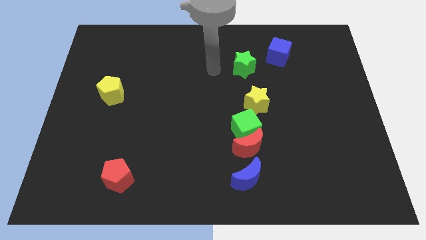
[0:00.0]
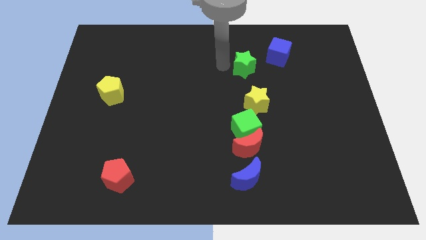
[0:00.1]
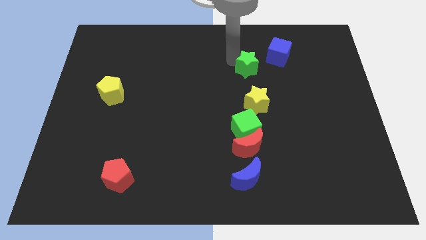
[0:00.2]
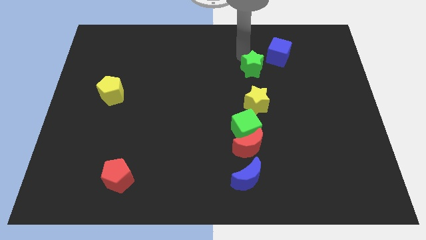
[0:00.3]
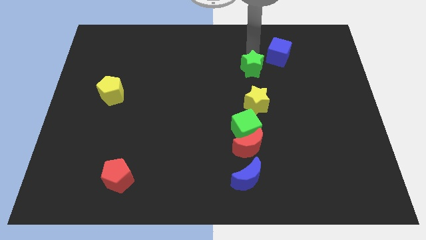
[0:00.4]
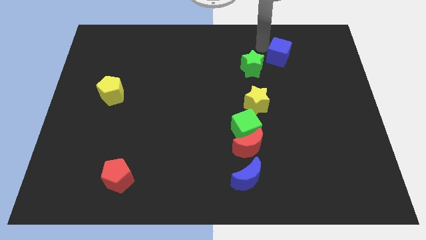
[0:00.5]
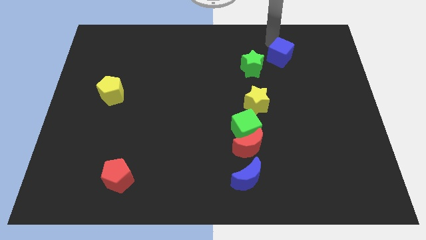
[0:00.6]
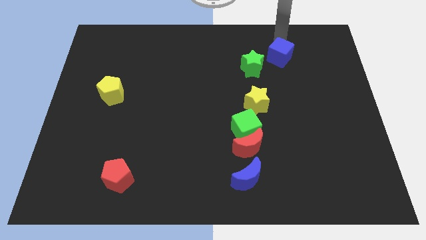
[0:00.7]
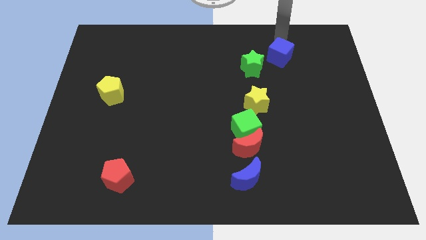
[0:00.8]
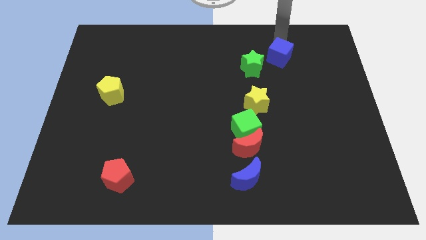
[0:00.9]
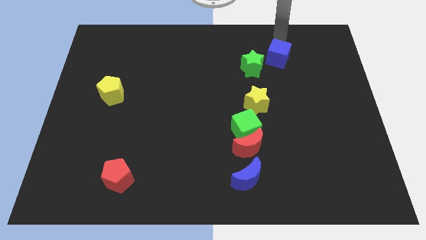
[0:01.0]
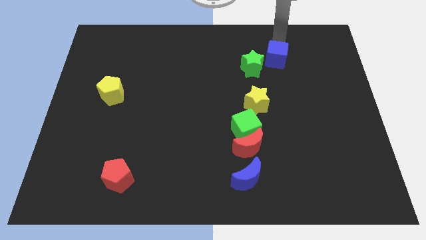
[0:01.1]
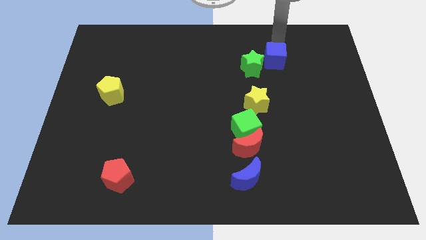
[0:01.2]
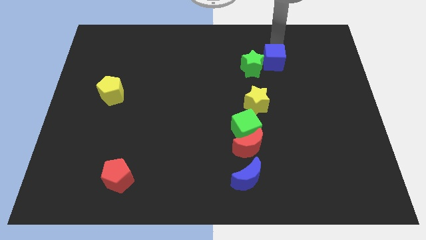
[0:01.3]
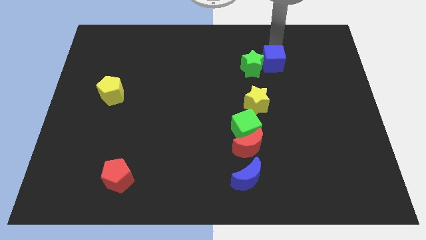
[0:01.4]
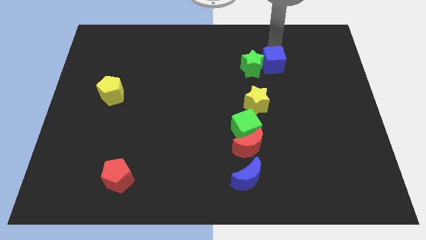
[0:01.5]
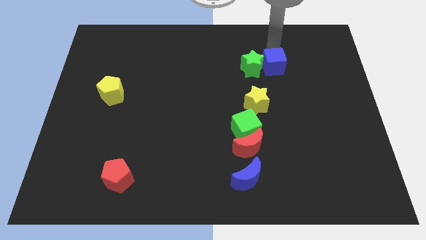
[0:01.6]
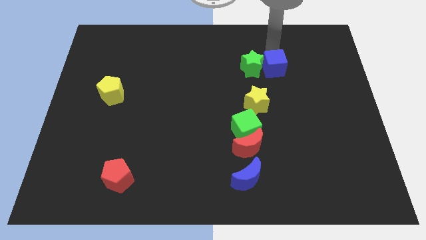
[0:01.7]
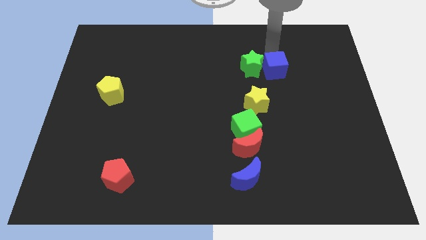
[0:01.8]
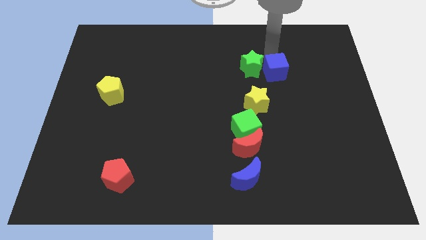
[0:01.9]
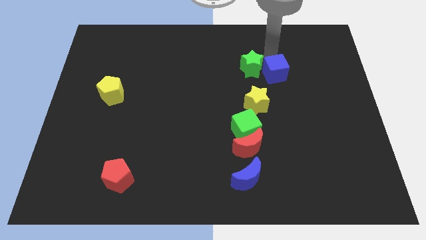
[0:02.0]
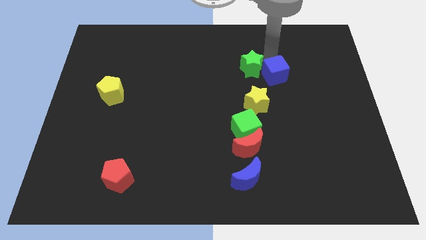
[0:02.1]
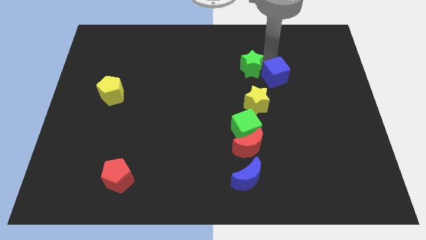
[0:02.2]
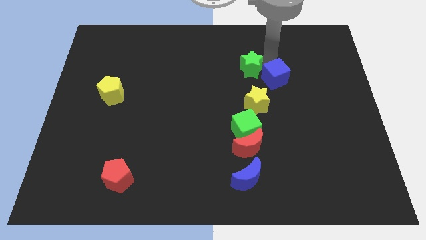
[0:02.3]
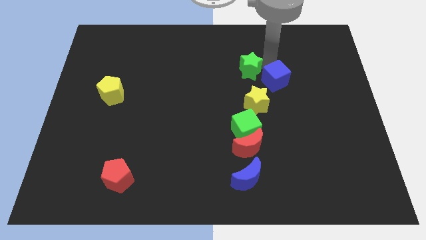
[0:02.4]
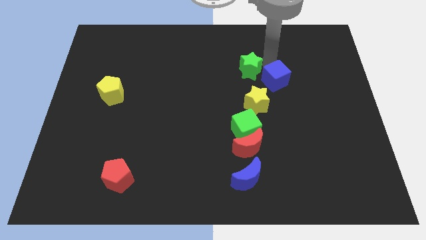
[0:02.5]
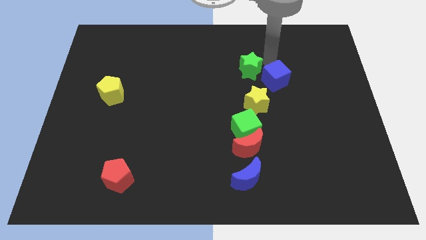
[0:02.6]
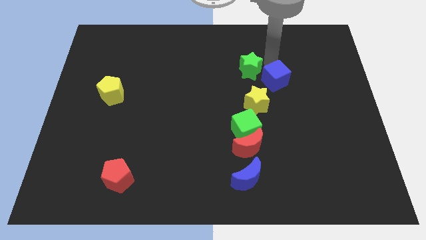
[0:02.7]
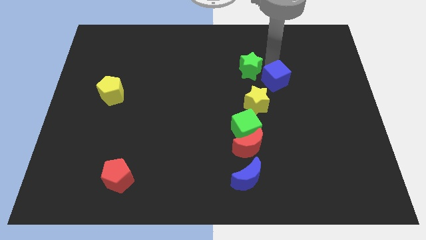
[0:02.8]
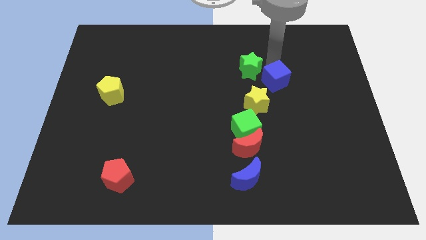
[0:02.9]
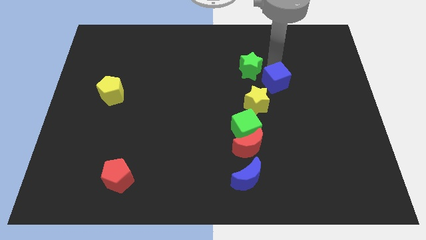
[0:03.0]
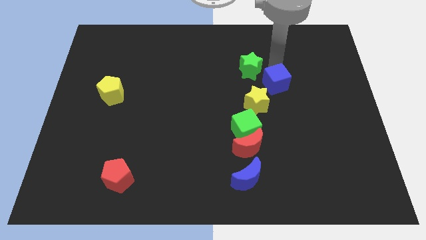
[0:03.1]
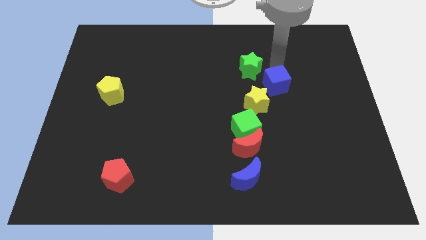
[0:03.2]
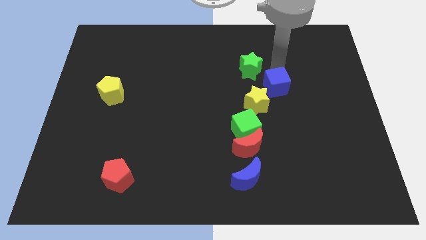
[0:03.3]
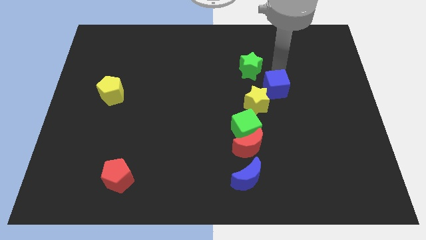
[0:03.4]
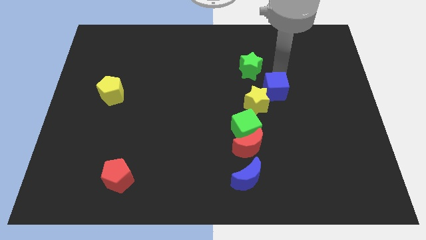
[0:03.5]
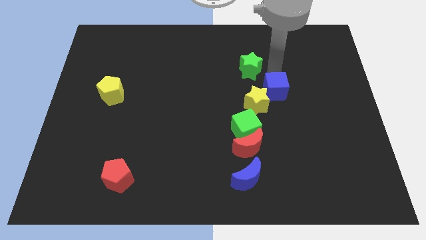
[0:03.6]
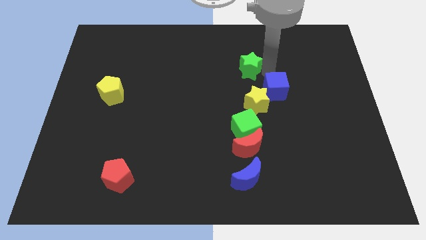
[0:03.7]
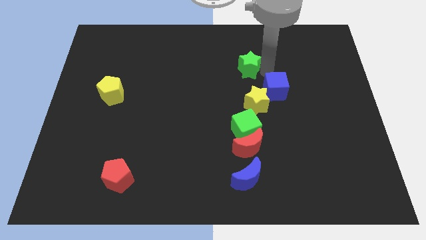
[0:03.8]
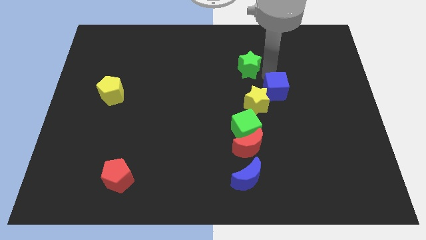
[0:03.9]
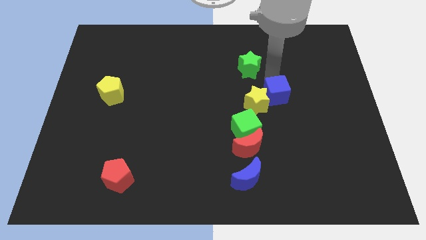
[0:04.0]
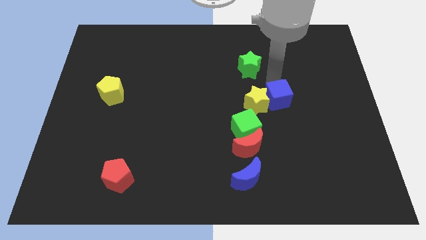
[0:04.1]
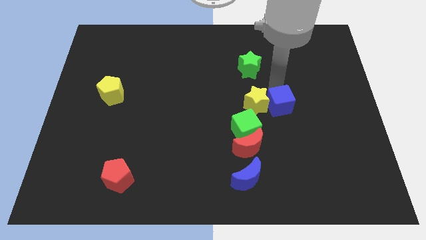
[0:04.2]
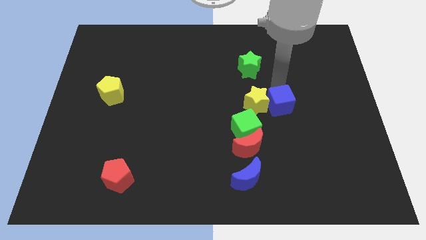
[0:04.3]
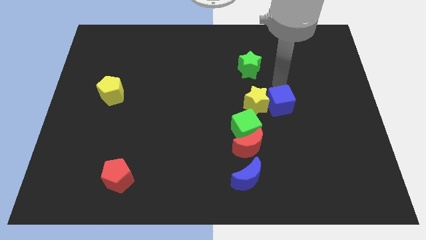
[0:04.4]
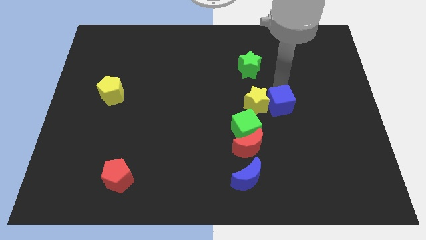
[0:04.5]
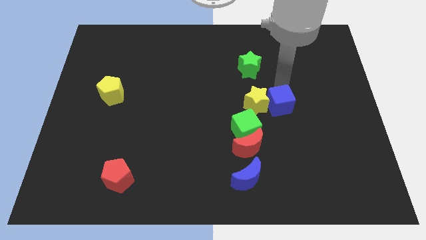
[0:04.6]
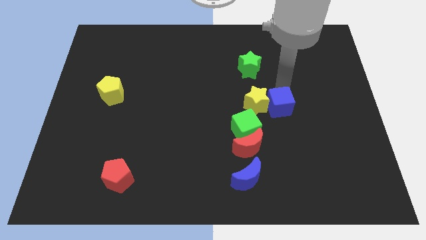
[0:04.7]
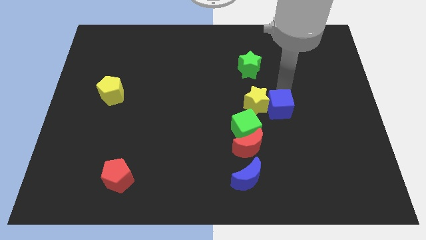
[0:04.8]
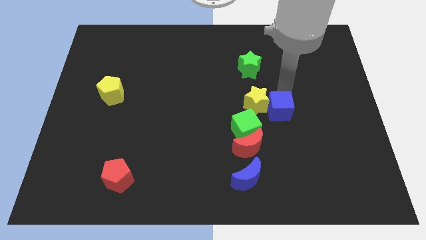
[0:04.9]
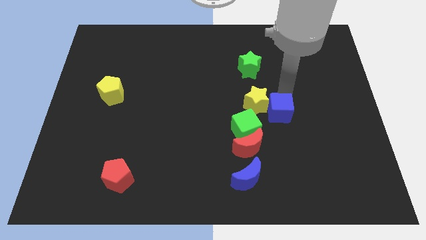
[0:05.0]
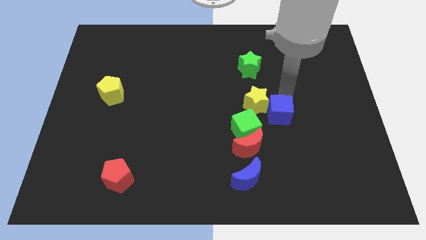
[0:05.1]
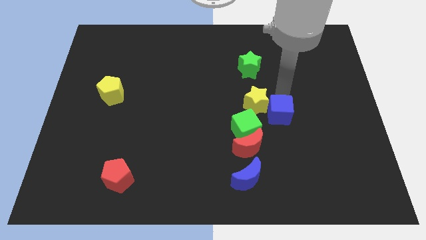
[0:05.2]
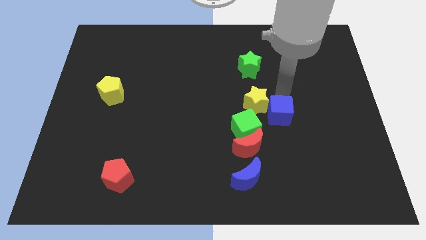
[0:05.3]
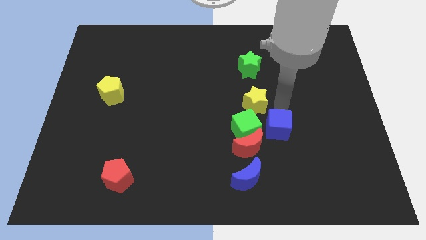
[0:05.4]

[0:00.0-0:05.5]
push the blue cube to the bottom of the yellow star

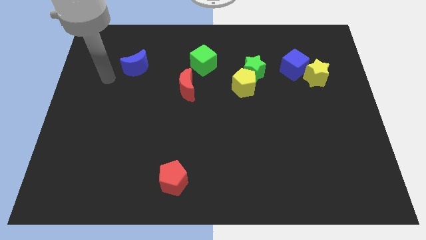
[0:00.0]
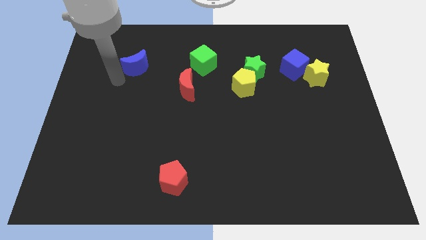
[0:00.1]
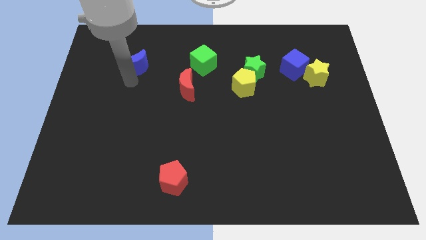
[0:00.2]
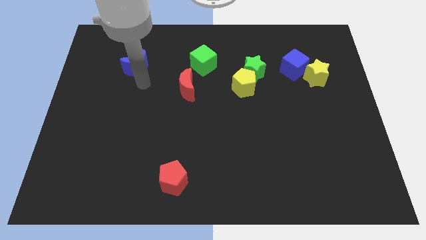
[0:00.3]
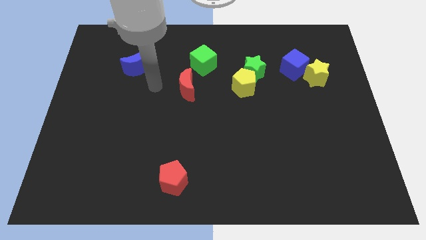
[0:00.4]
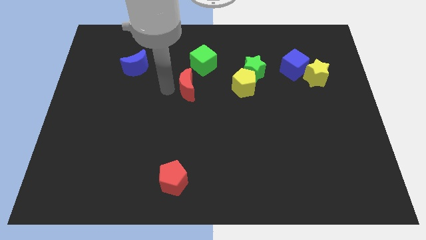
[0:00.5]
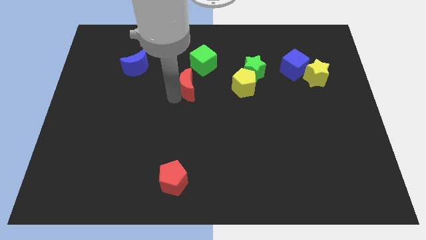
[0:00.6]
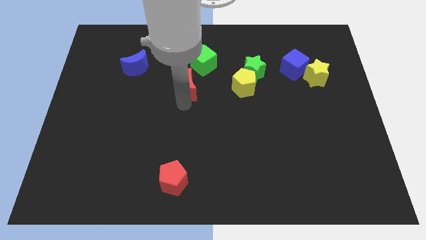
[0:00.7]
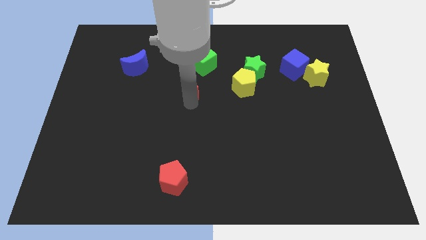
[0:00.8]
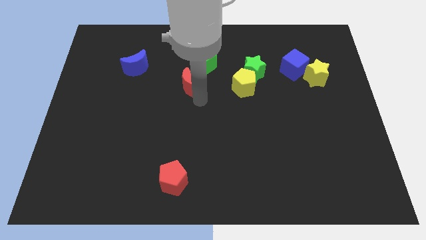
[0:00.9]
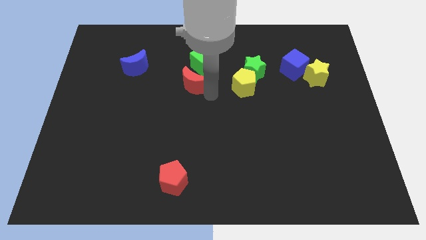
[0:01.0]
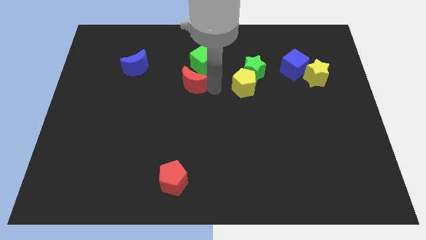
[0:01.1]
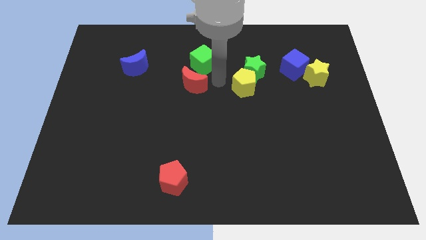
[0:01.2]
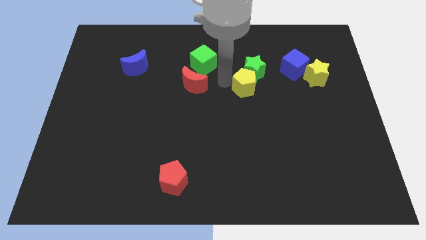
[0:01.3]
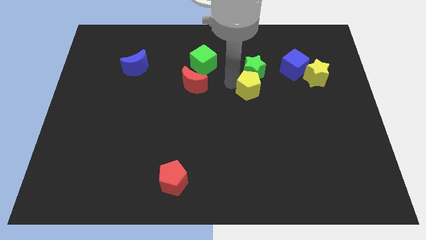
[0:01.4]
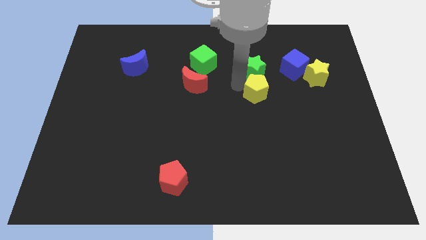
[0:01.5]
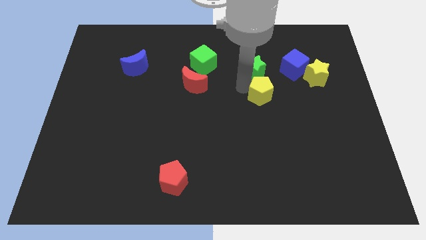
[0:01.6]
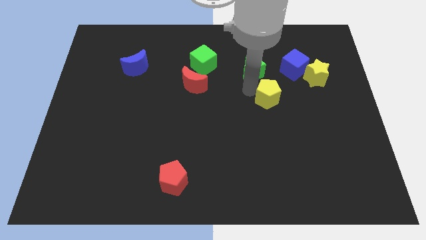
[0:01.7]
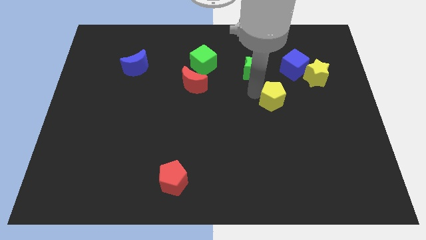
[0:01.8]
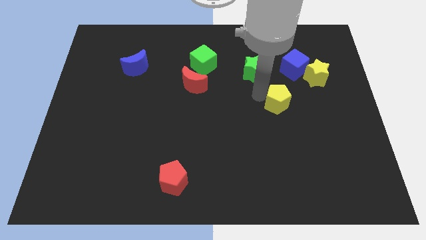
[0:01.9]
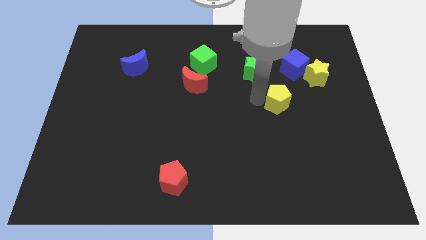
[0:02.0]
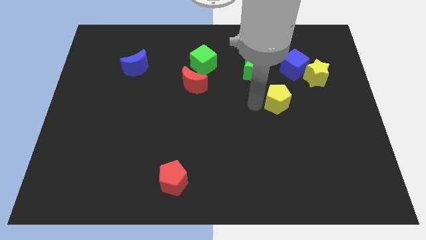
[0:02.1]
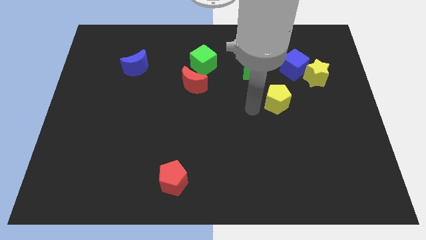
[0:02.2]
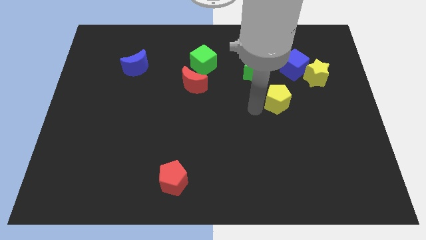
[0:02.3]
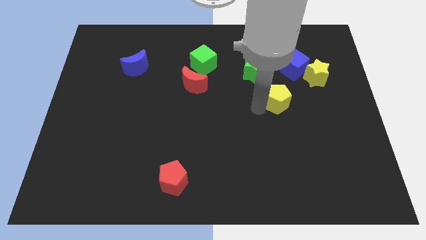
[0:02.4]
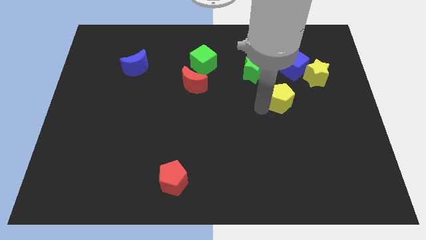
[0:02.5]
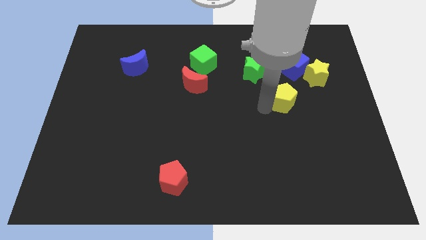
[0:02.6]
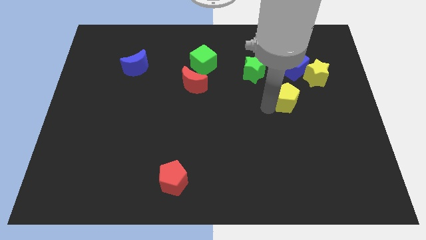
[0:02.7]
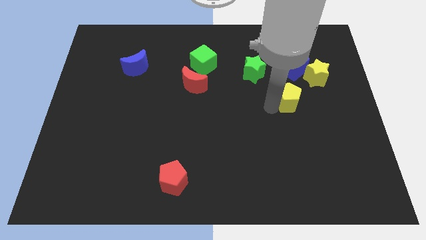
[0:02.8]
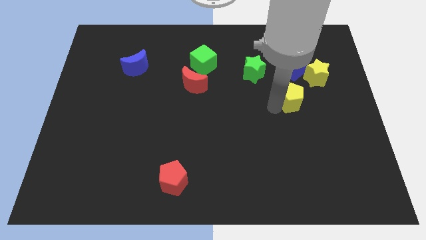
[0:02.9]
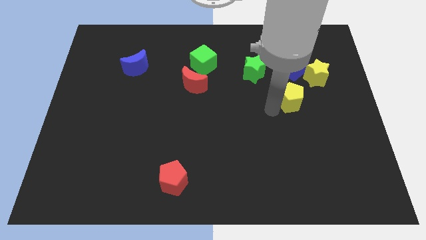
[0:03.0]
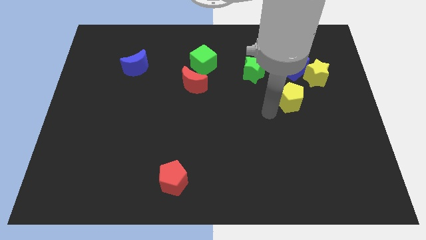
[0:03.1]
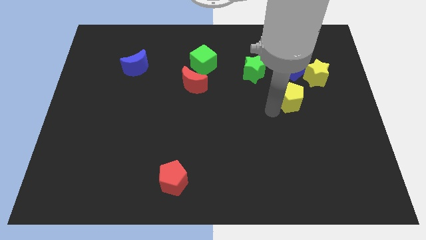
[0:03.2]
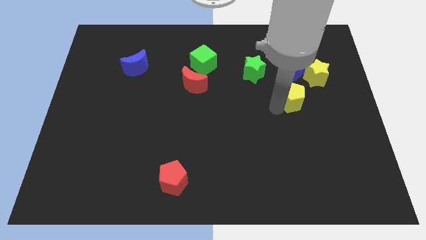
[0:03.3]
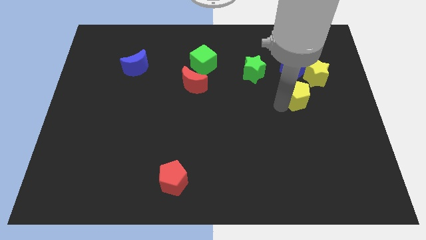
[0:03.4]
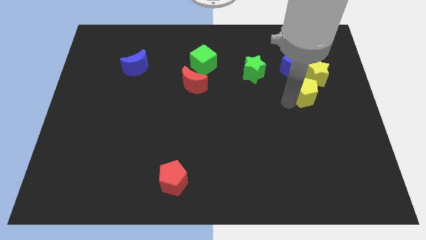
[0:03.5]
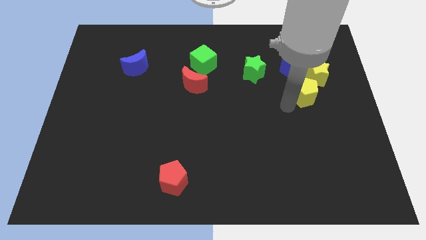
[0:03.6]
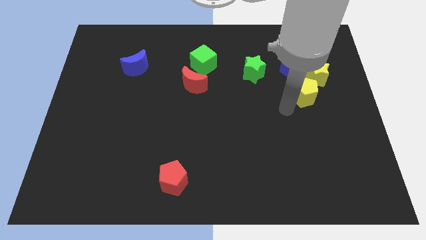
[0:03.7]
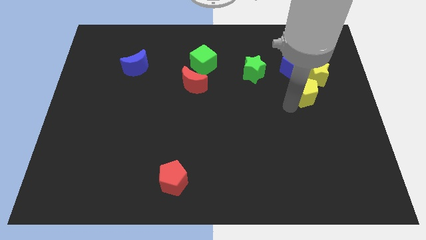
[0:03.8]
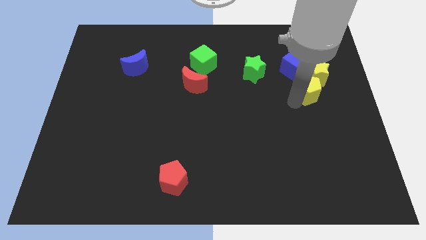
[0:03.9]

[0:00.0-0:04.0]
slide the yellow pentagon diagonally down and to the right of the blue cube
